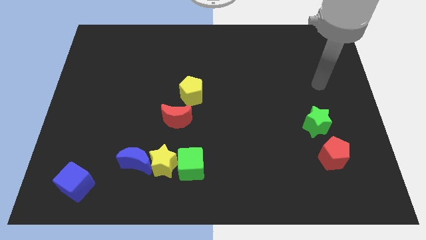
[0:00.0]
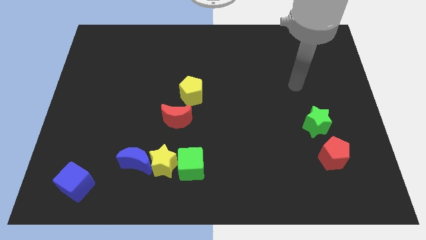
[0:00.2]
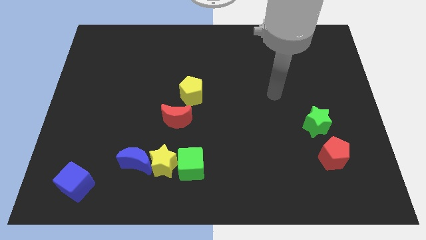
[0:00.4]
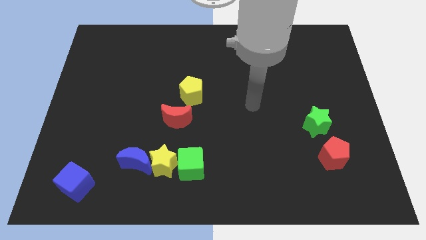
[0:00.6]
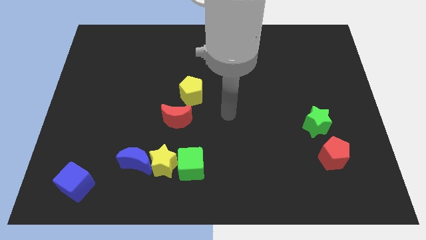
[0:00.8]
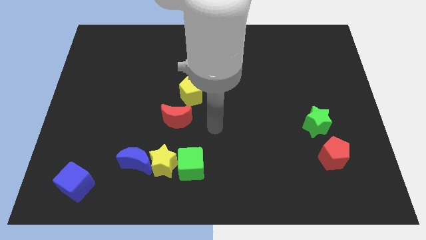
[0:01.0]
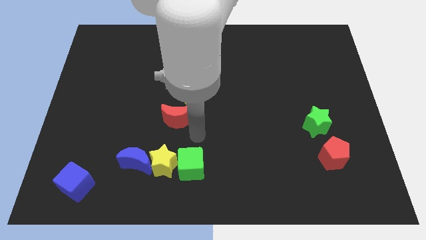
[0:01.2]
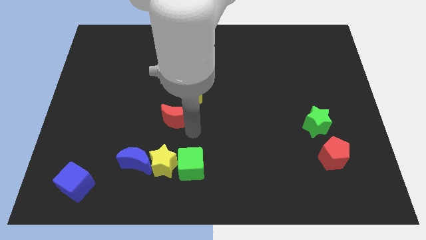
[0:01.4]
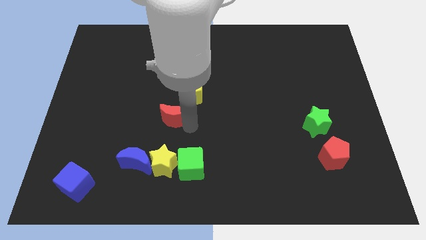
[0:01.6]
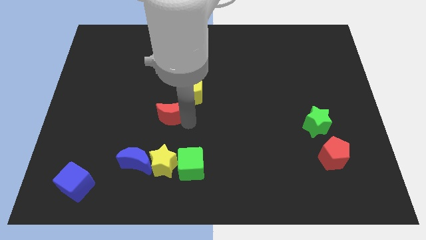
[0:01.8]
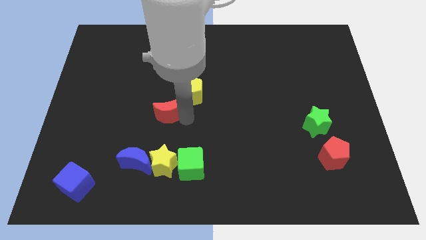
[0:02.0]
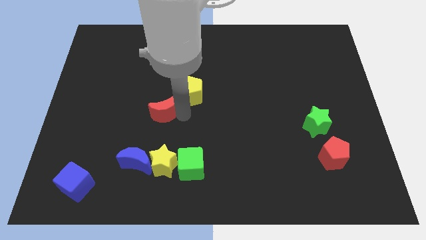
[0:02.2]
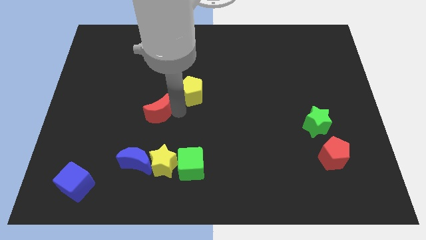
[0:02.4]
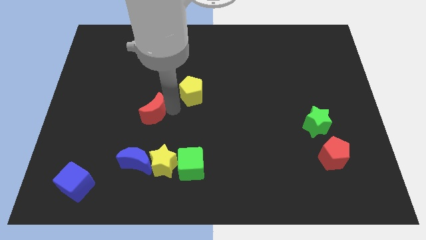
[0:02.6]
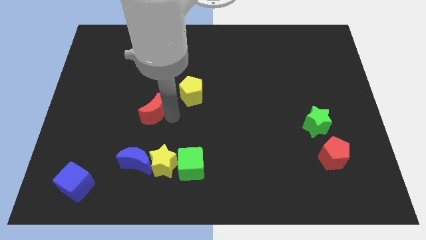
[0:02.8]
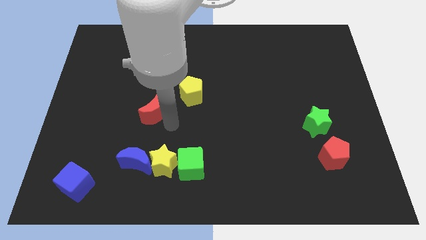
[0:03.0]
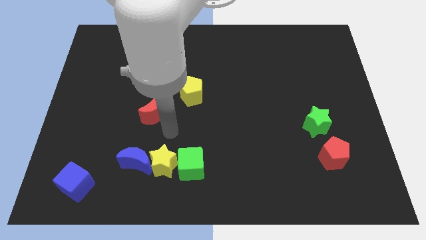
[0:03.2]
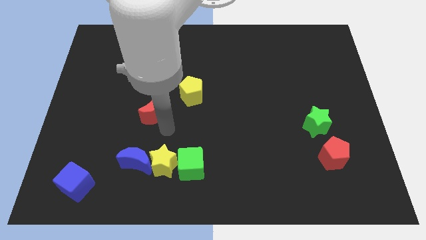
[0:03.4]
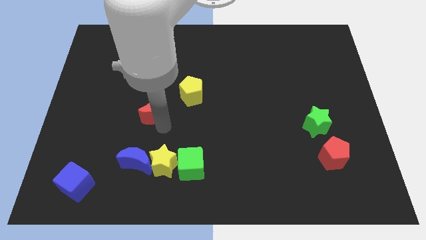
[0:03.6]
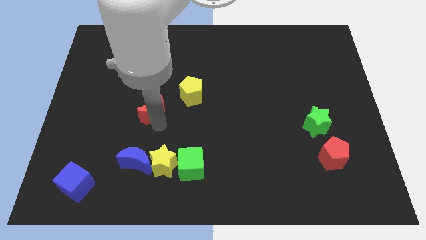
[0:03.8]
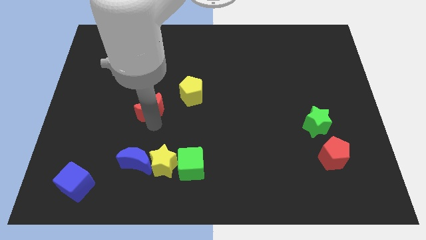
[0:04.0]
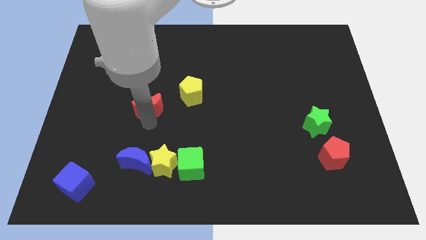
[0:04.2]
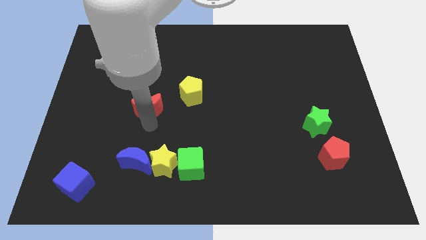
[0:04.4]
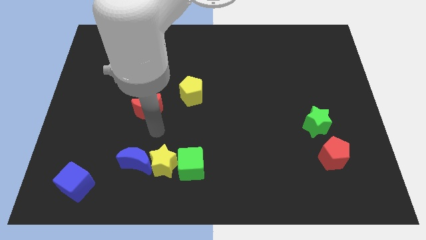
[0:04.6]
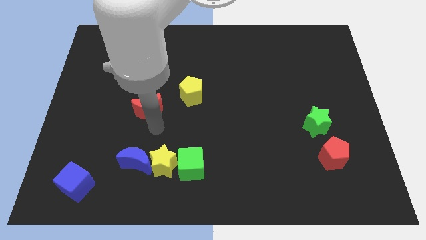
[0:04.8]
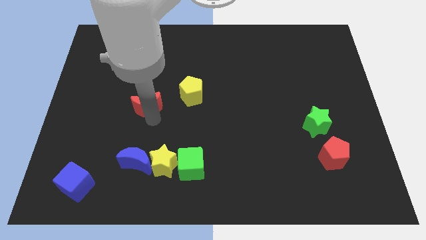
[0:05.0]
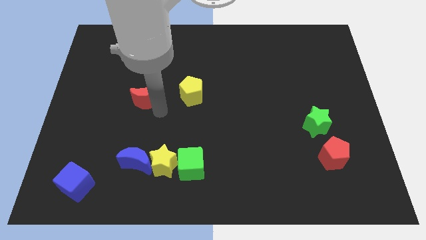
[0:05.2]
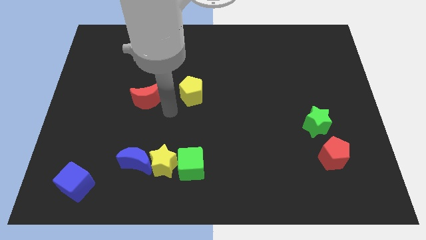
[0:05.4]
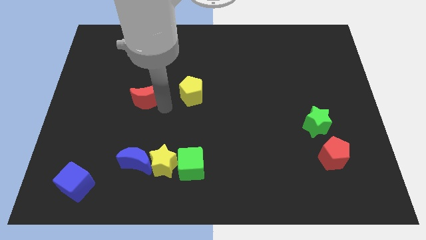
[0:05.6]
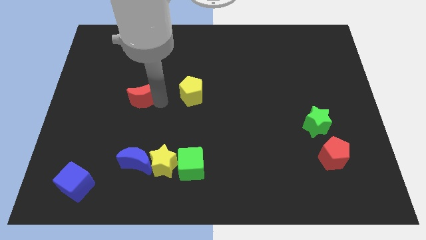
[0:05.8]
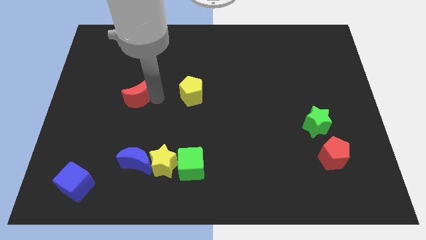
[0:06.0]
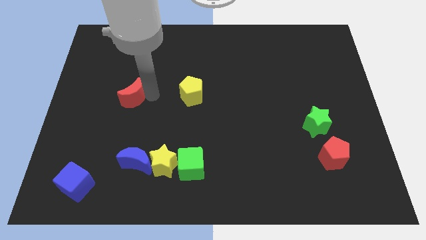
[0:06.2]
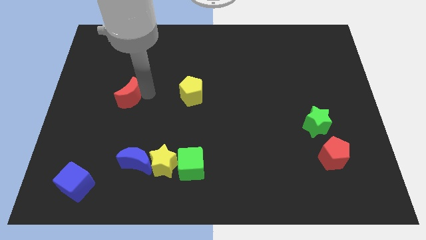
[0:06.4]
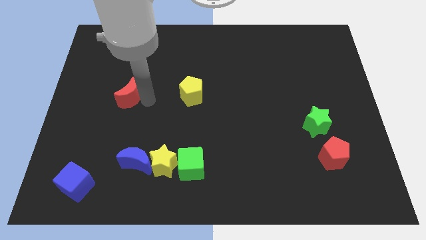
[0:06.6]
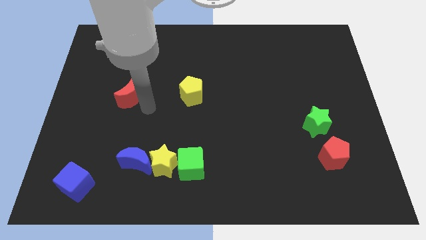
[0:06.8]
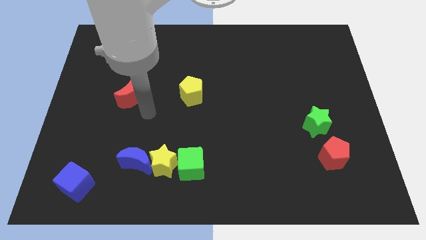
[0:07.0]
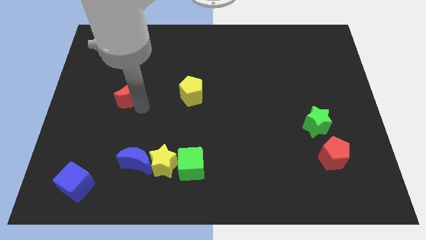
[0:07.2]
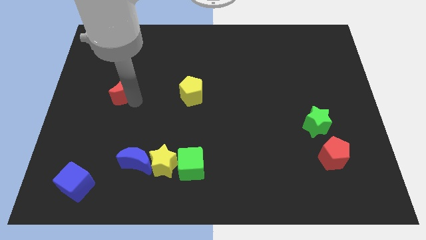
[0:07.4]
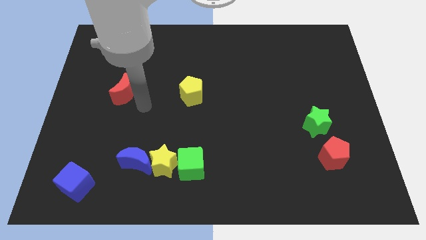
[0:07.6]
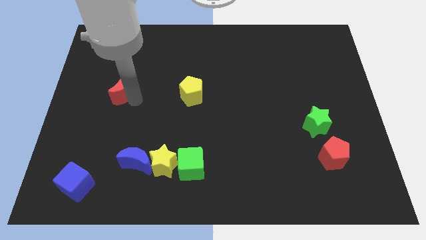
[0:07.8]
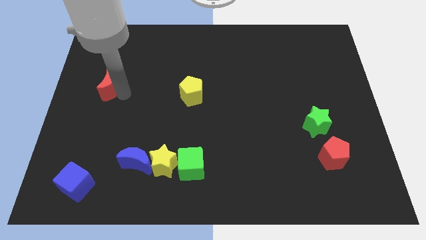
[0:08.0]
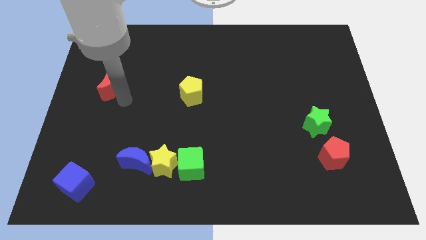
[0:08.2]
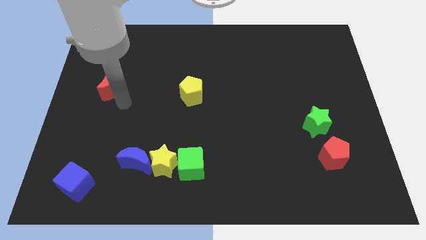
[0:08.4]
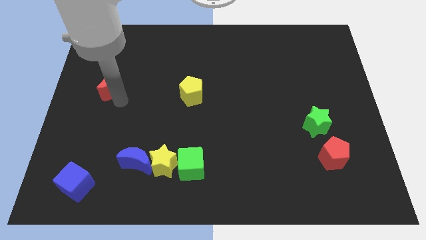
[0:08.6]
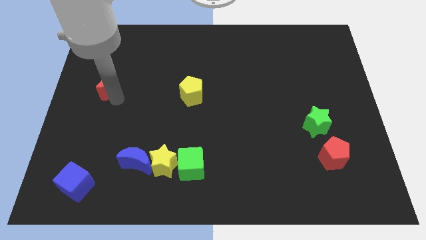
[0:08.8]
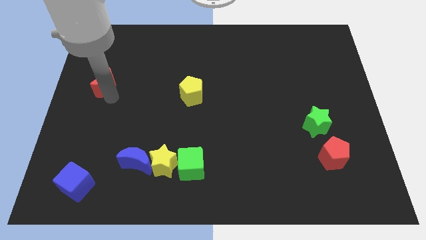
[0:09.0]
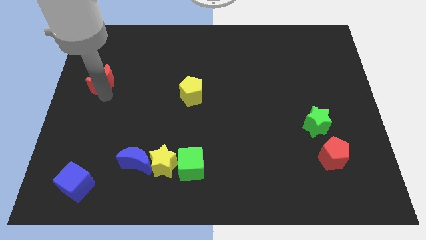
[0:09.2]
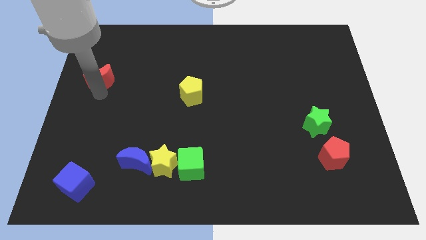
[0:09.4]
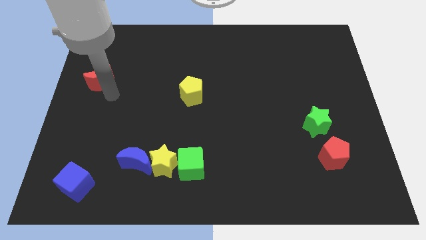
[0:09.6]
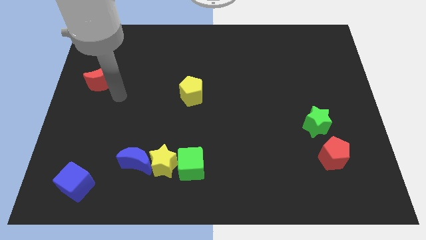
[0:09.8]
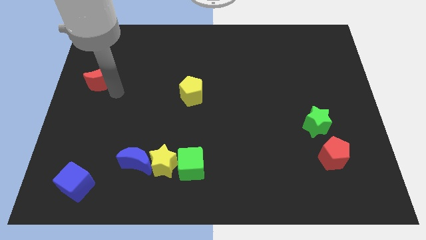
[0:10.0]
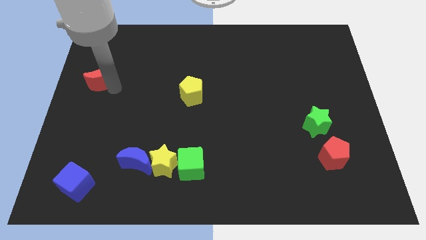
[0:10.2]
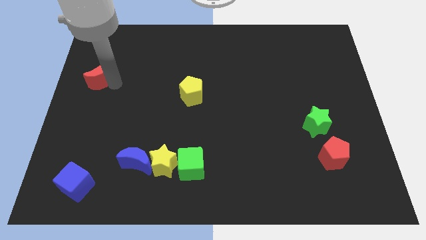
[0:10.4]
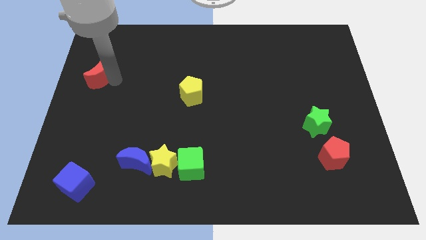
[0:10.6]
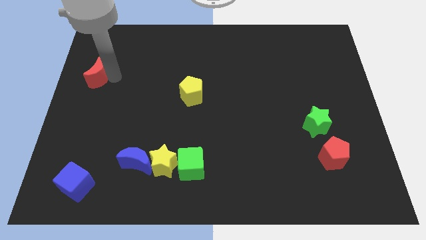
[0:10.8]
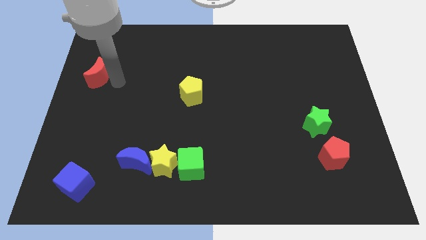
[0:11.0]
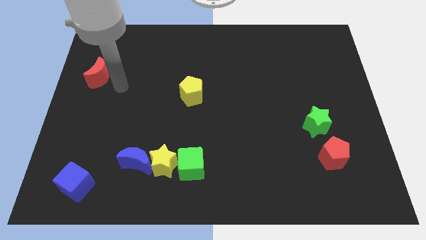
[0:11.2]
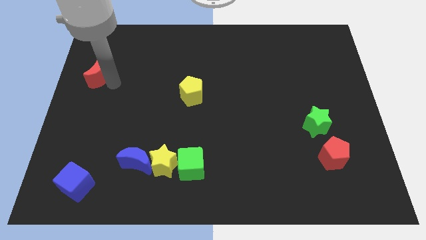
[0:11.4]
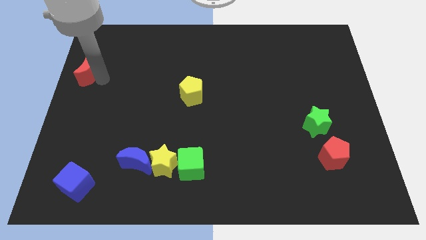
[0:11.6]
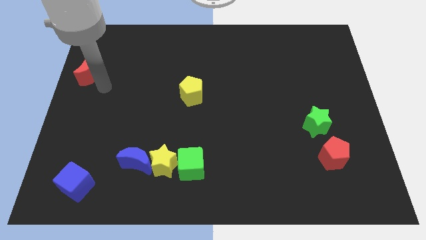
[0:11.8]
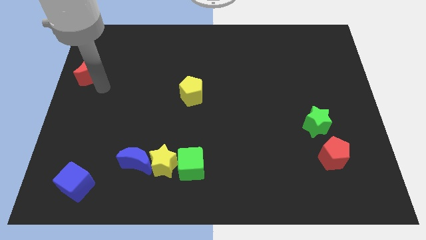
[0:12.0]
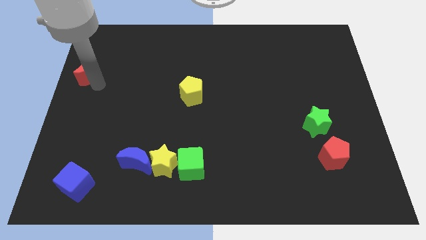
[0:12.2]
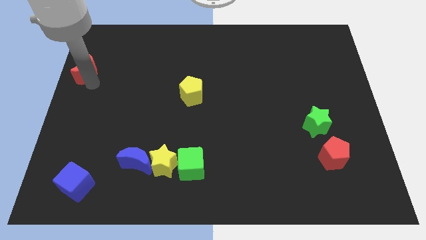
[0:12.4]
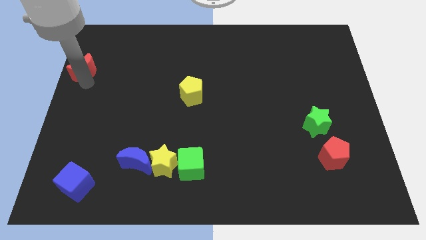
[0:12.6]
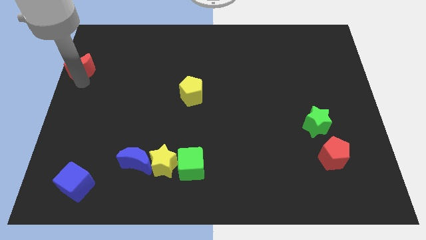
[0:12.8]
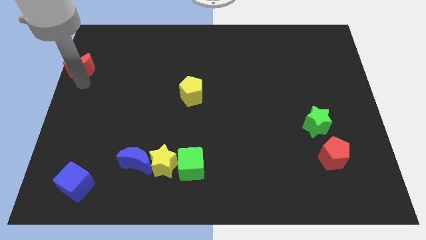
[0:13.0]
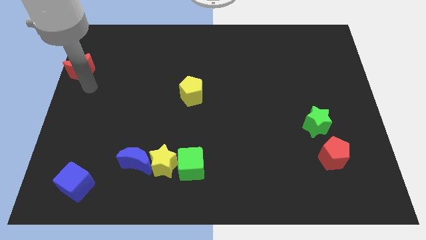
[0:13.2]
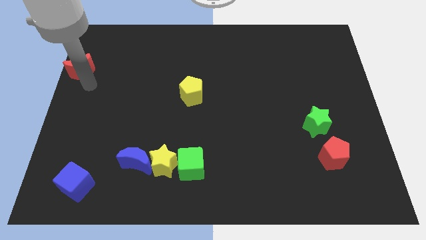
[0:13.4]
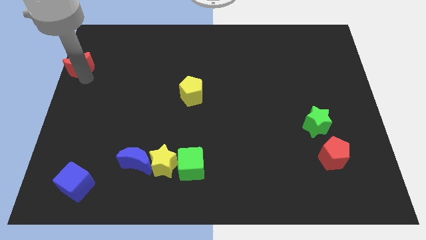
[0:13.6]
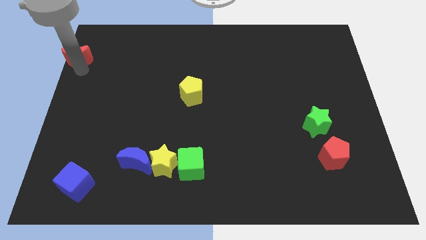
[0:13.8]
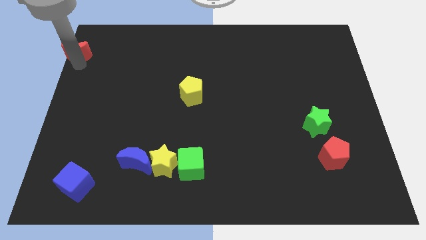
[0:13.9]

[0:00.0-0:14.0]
move the red moon to the top left of the board
